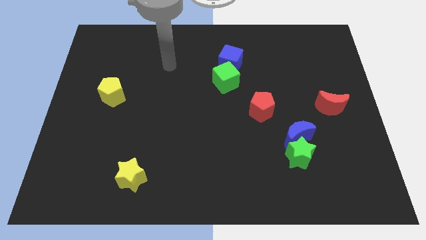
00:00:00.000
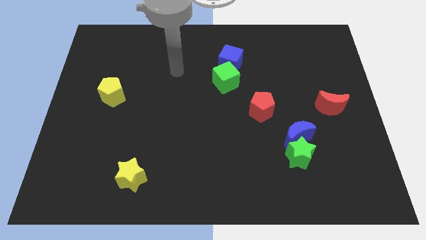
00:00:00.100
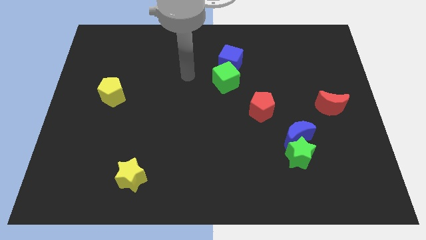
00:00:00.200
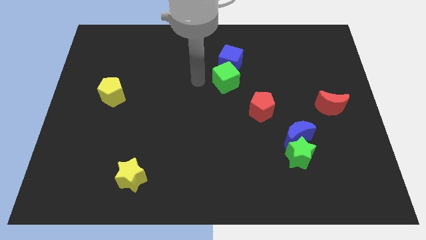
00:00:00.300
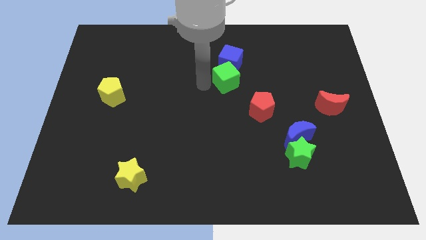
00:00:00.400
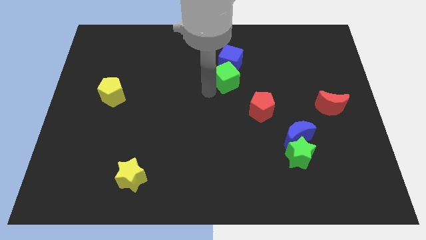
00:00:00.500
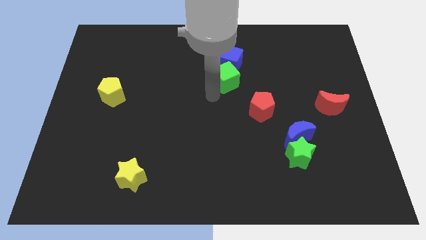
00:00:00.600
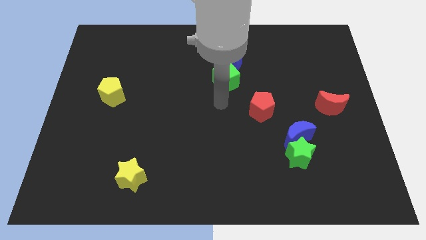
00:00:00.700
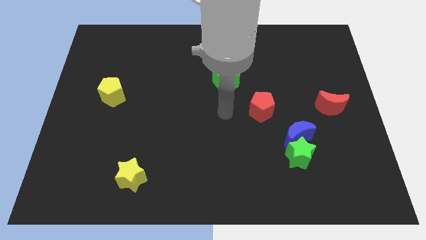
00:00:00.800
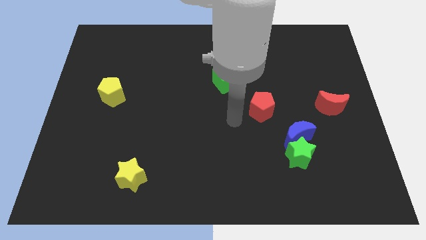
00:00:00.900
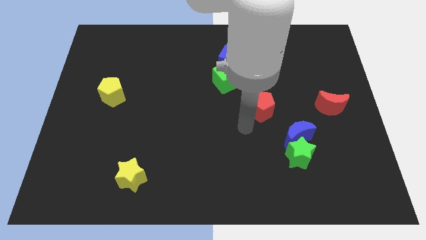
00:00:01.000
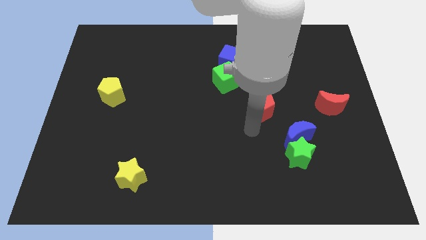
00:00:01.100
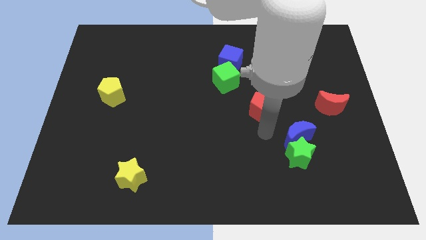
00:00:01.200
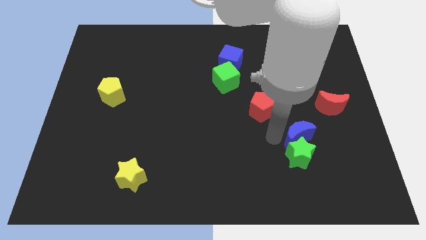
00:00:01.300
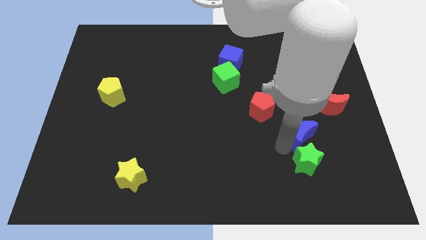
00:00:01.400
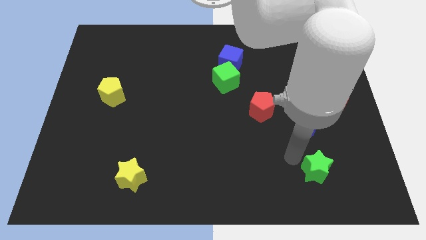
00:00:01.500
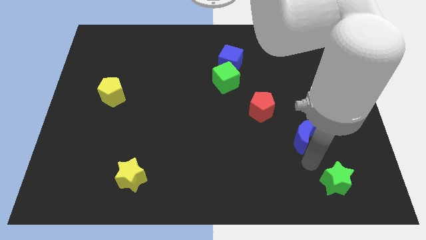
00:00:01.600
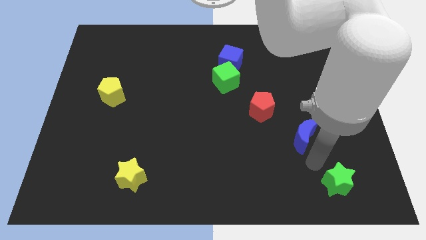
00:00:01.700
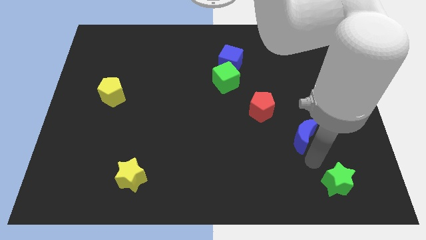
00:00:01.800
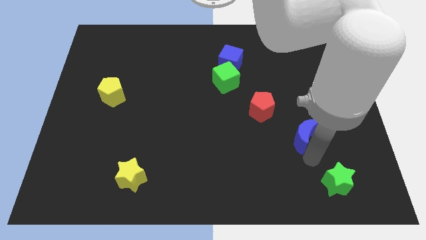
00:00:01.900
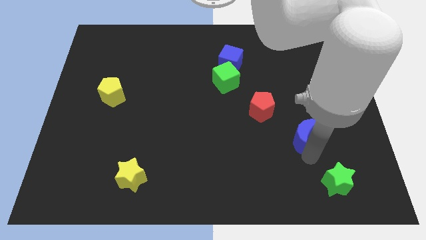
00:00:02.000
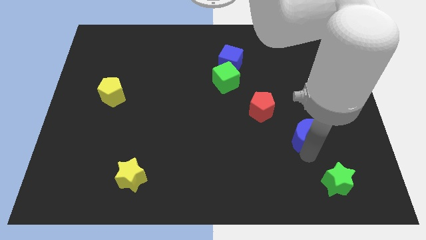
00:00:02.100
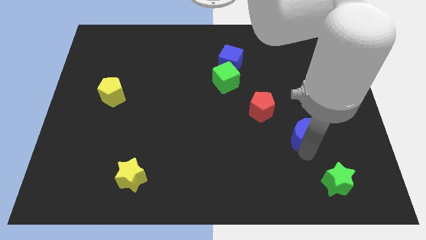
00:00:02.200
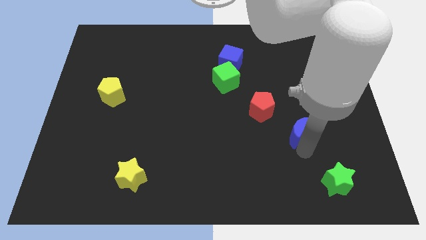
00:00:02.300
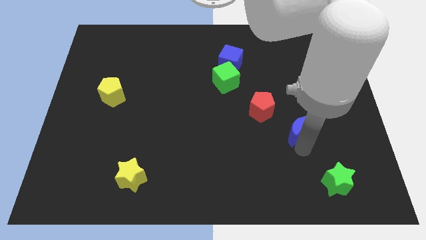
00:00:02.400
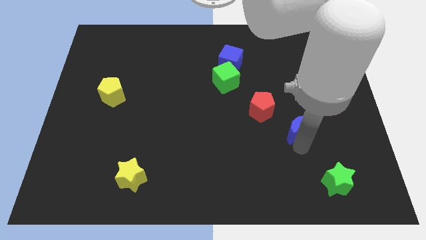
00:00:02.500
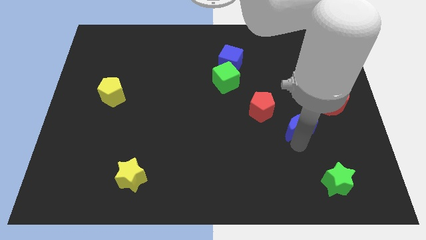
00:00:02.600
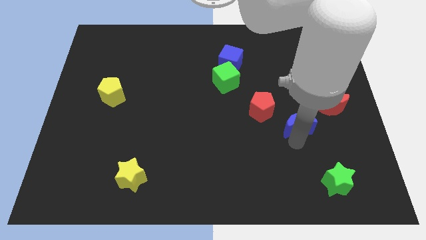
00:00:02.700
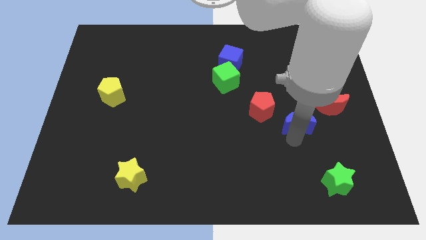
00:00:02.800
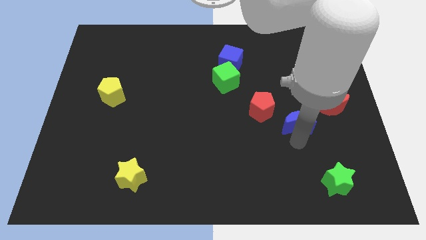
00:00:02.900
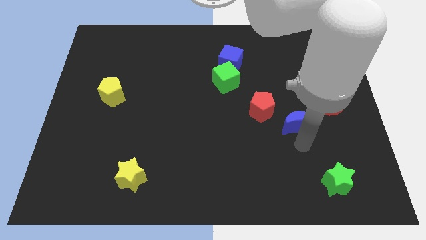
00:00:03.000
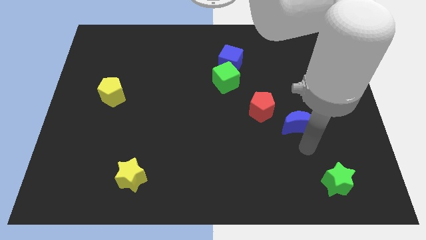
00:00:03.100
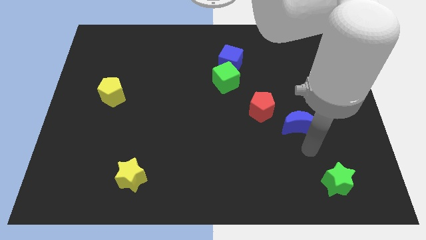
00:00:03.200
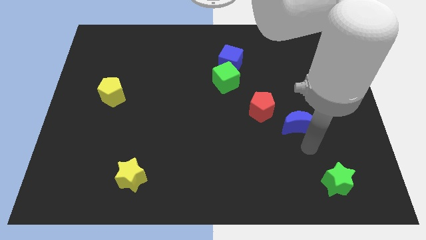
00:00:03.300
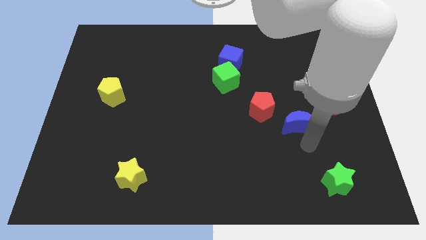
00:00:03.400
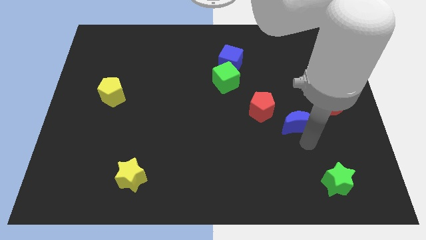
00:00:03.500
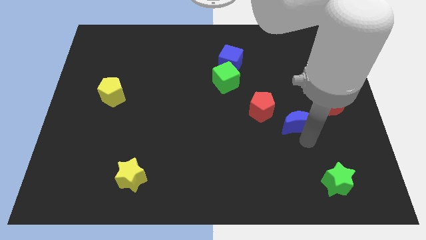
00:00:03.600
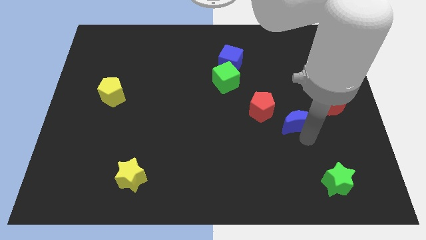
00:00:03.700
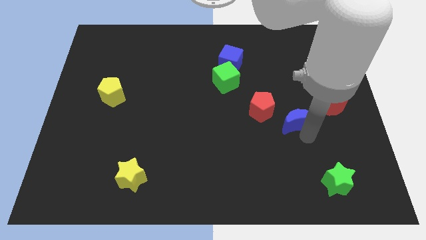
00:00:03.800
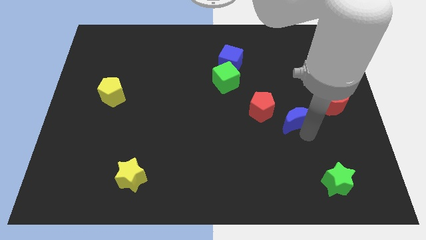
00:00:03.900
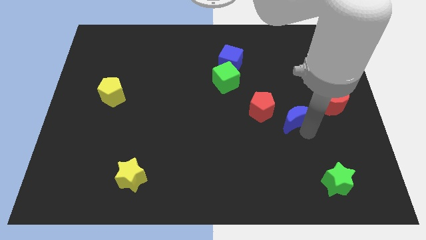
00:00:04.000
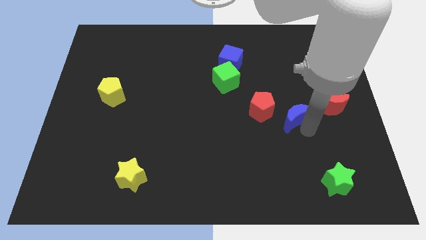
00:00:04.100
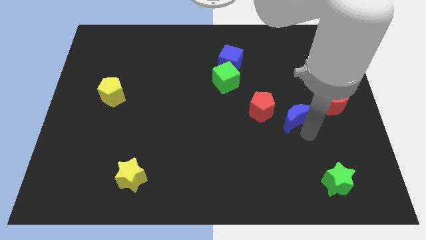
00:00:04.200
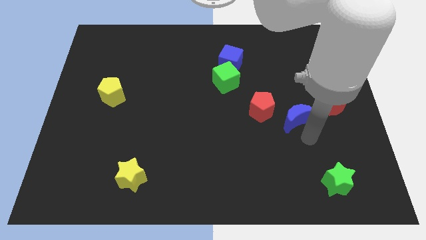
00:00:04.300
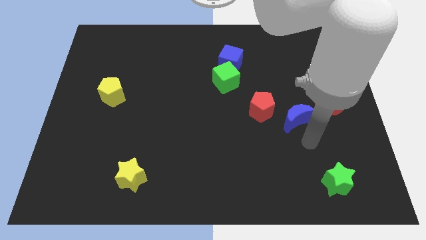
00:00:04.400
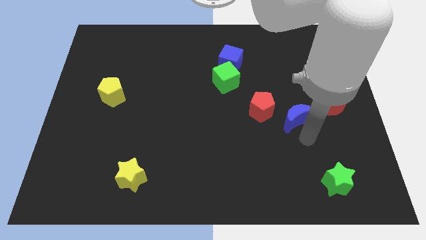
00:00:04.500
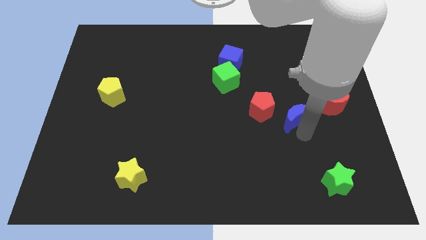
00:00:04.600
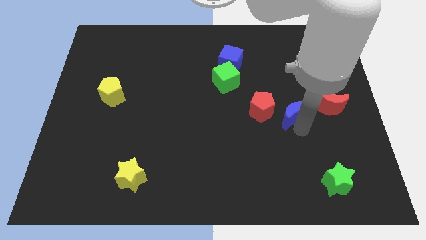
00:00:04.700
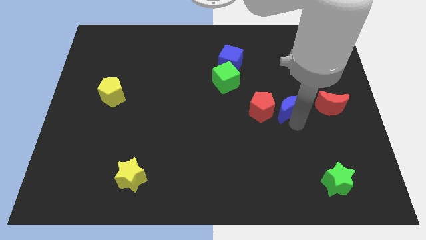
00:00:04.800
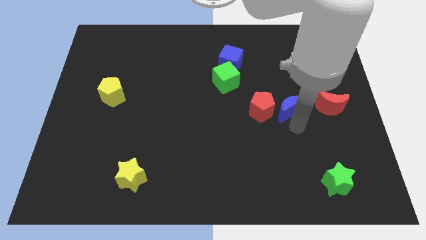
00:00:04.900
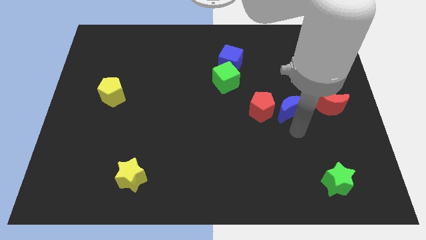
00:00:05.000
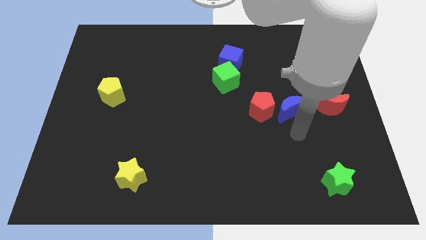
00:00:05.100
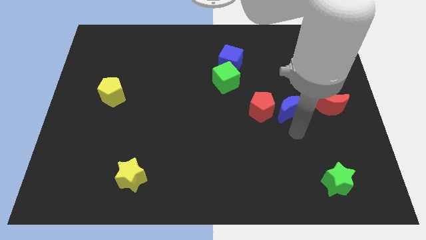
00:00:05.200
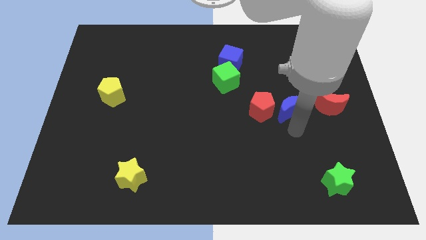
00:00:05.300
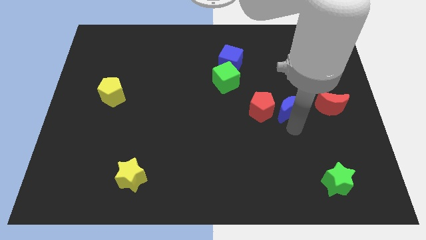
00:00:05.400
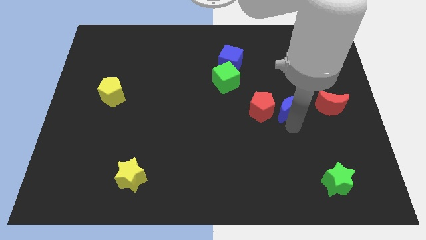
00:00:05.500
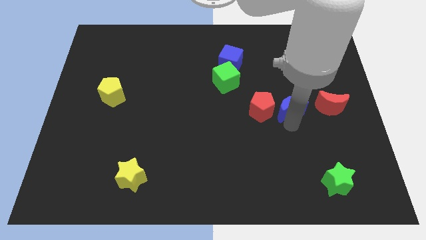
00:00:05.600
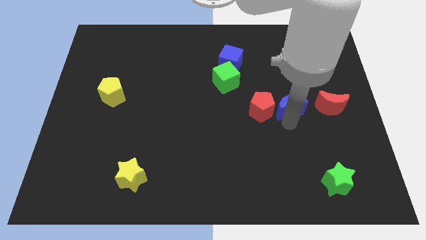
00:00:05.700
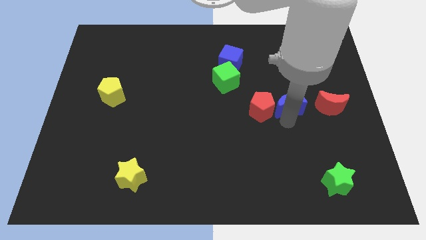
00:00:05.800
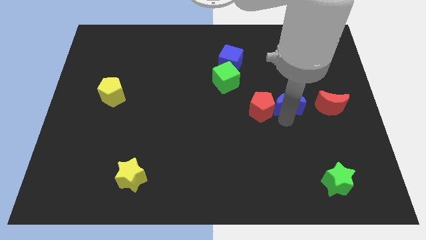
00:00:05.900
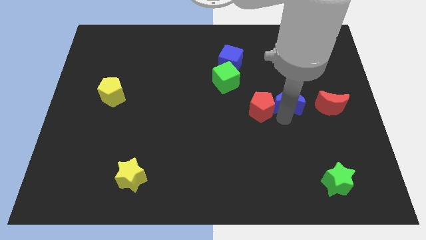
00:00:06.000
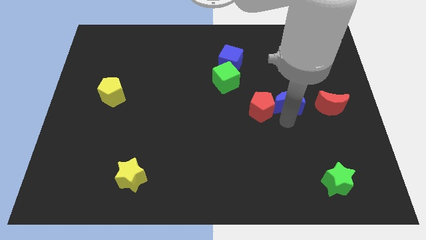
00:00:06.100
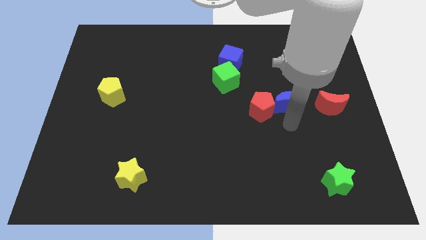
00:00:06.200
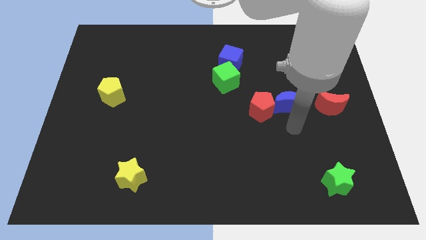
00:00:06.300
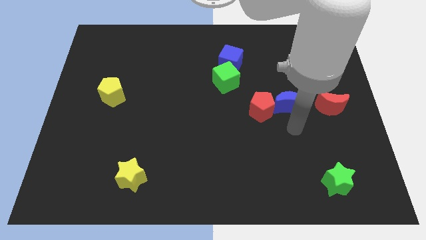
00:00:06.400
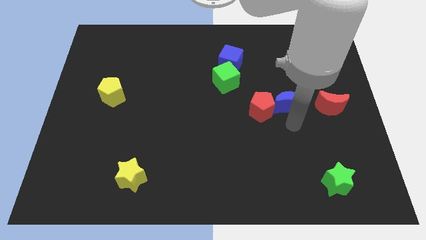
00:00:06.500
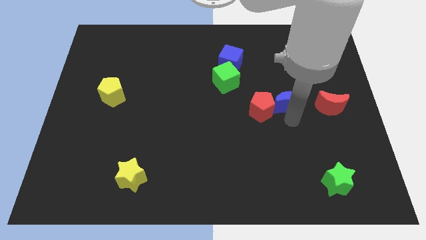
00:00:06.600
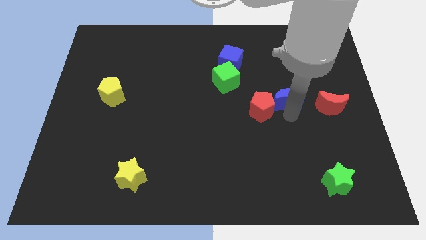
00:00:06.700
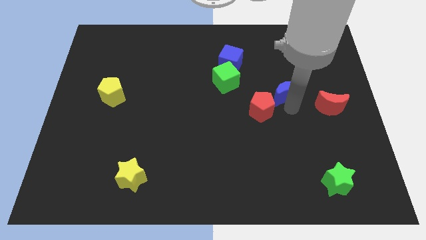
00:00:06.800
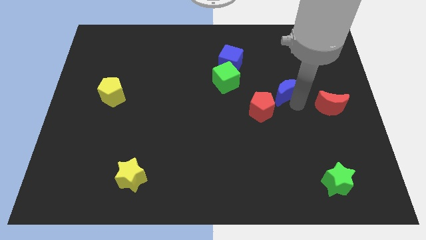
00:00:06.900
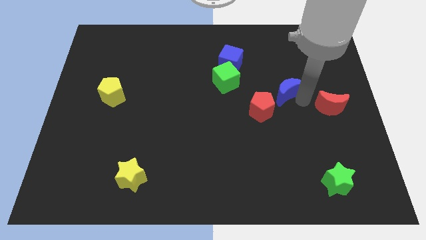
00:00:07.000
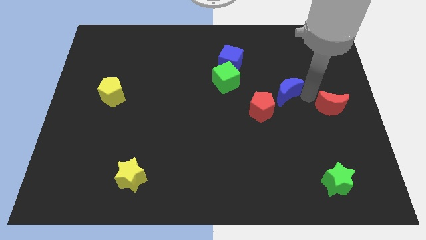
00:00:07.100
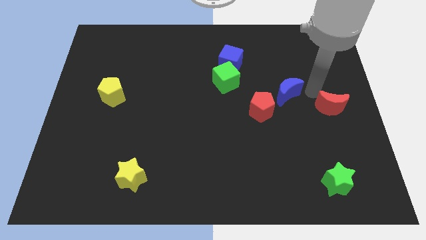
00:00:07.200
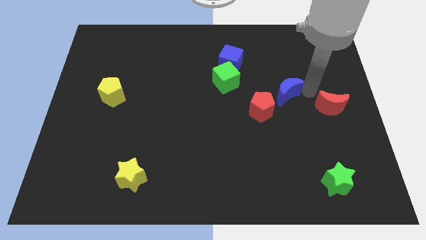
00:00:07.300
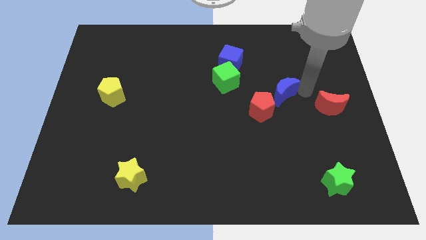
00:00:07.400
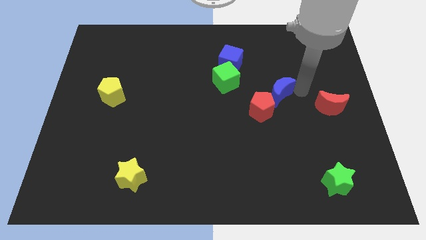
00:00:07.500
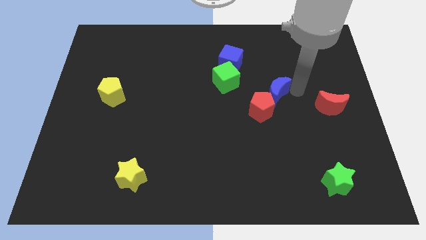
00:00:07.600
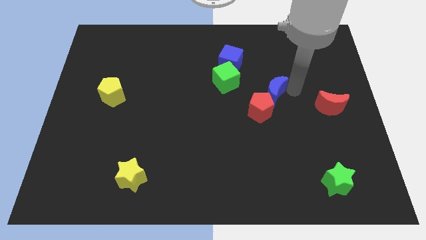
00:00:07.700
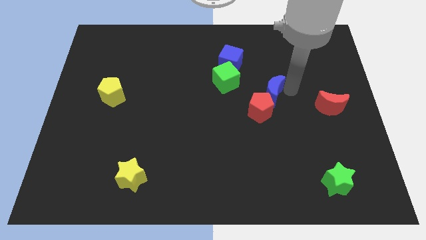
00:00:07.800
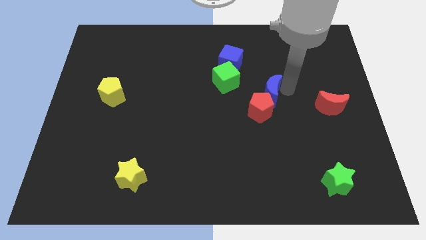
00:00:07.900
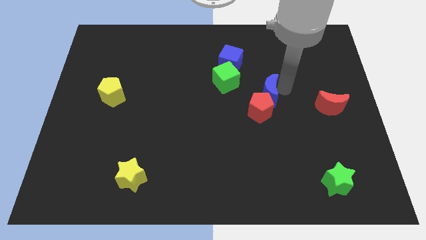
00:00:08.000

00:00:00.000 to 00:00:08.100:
move the blue moon to the bottom right side of the green cube
